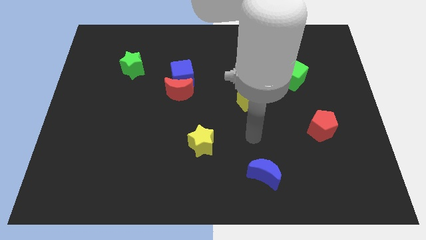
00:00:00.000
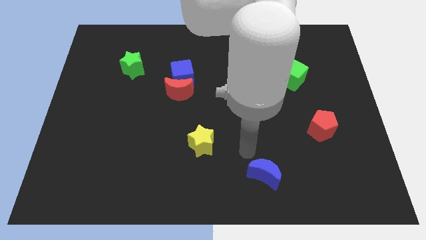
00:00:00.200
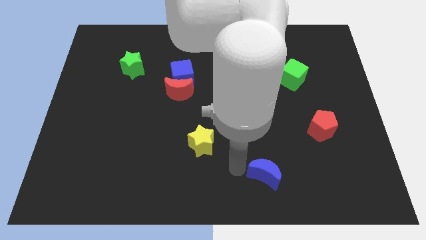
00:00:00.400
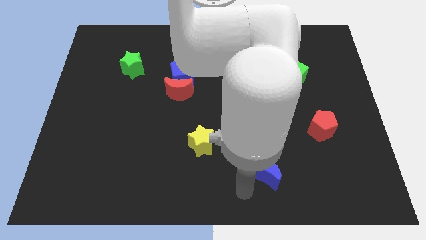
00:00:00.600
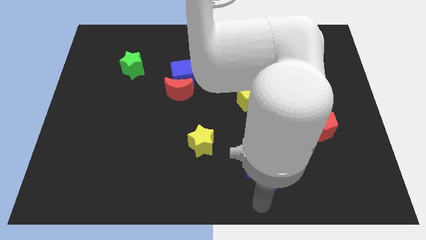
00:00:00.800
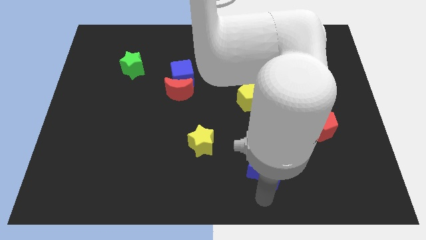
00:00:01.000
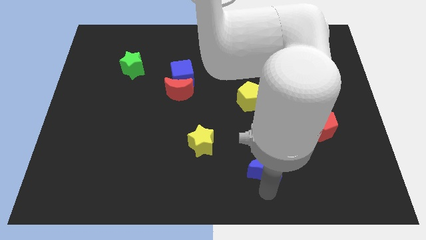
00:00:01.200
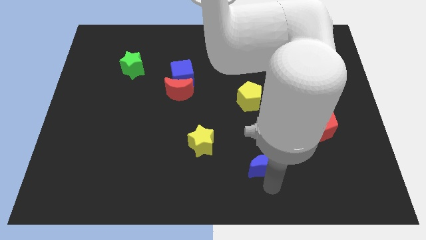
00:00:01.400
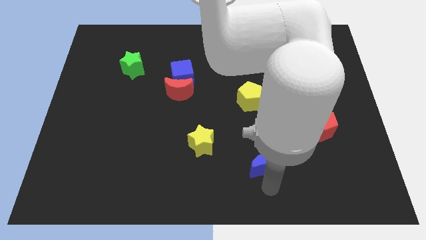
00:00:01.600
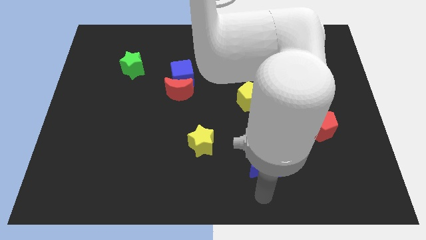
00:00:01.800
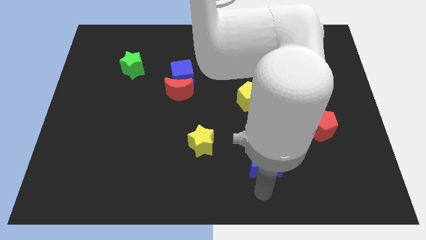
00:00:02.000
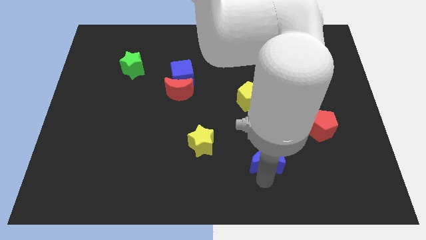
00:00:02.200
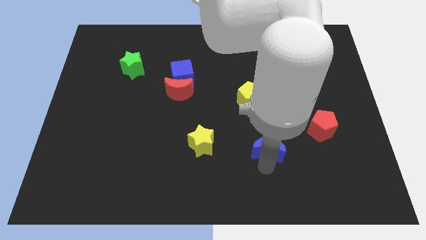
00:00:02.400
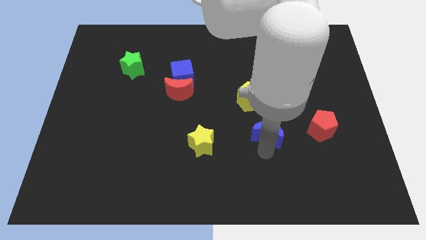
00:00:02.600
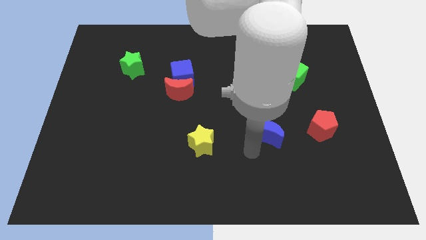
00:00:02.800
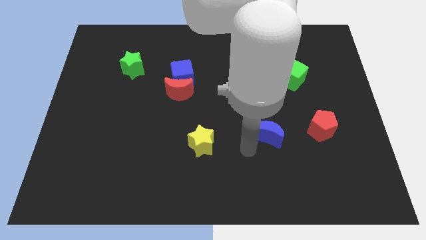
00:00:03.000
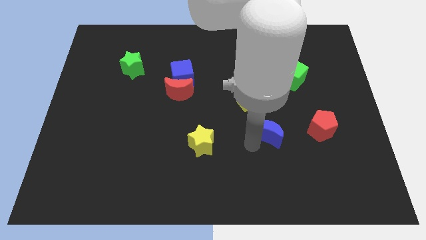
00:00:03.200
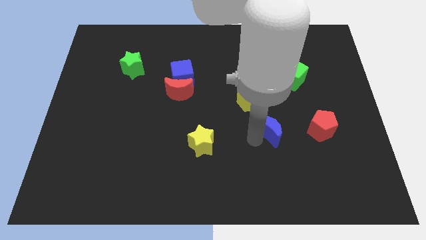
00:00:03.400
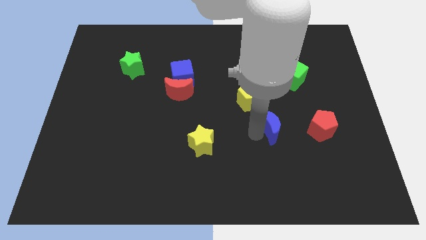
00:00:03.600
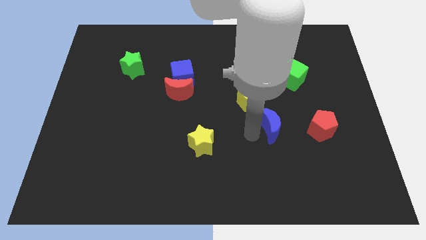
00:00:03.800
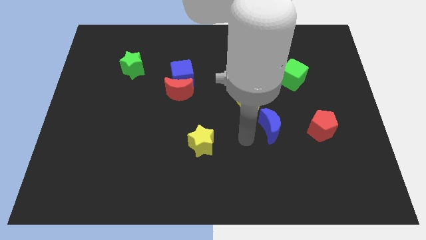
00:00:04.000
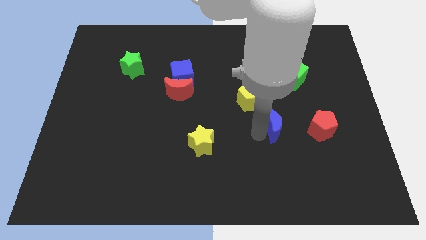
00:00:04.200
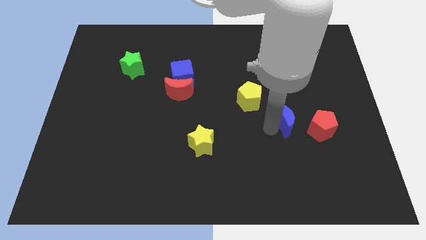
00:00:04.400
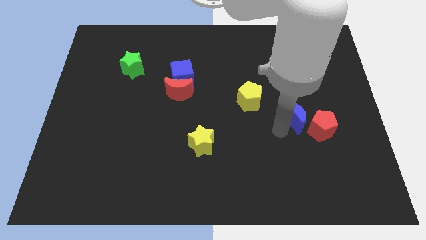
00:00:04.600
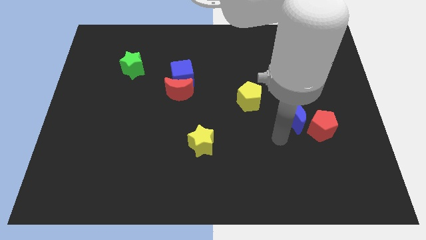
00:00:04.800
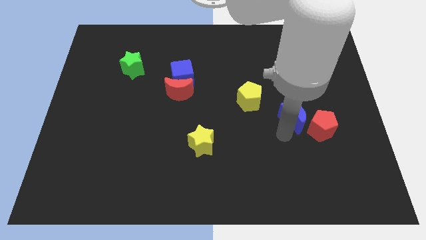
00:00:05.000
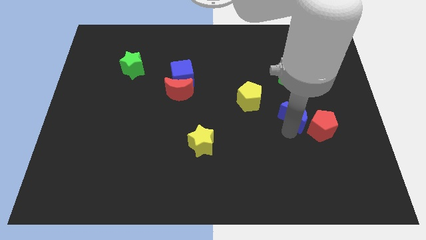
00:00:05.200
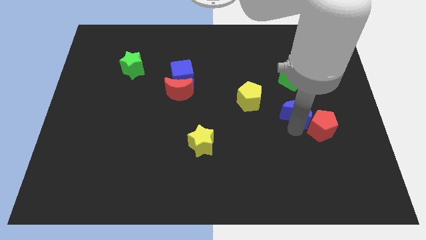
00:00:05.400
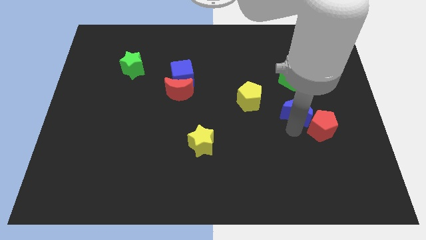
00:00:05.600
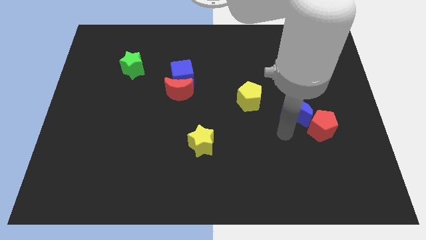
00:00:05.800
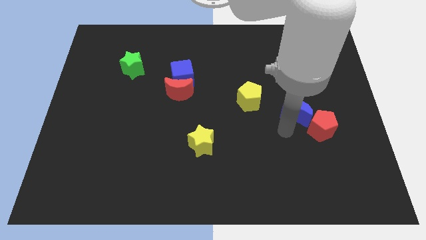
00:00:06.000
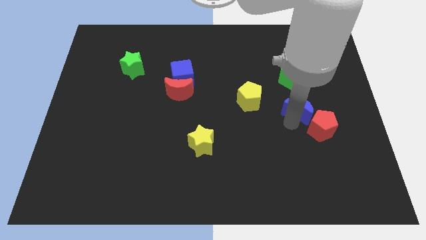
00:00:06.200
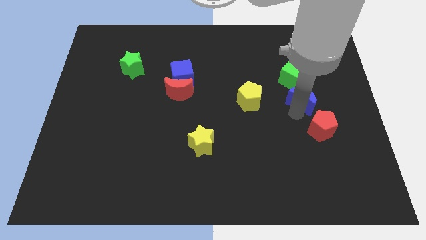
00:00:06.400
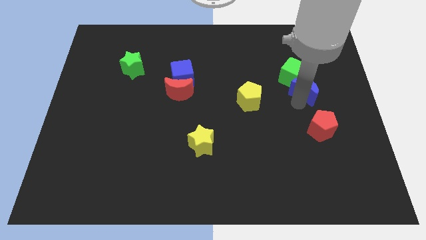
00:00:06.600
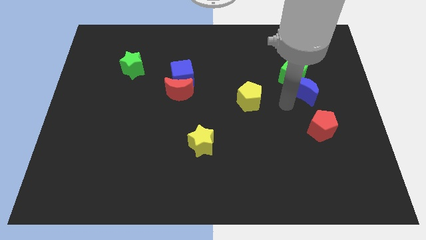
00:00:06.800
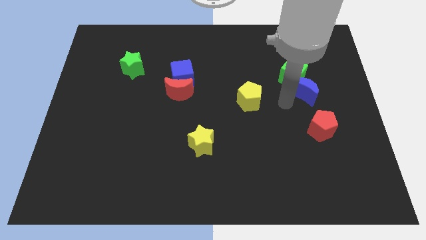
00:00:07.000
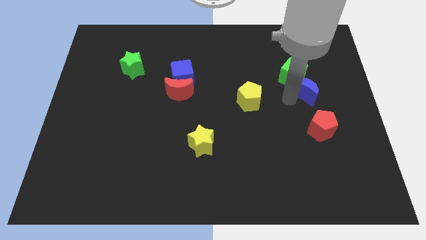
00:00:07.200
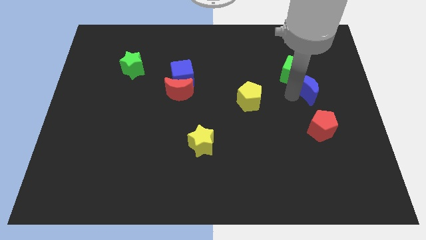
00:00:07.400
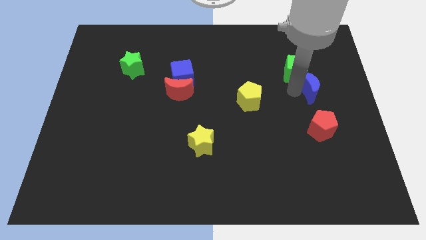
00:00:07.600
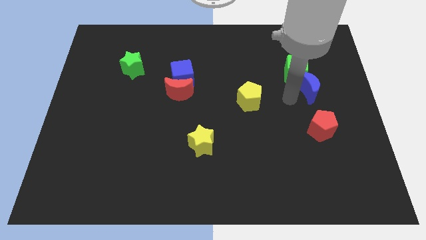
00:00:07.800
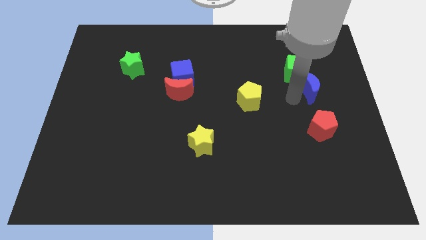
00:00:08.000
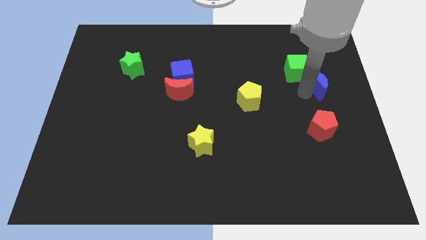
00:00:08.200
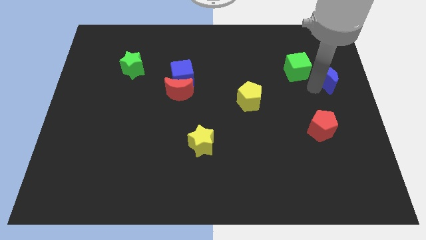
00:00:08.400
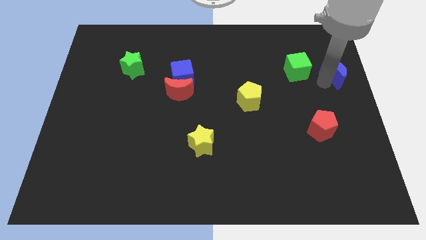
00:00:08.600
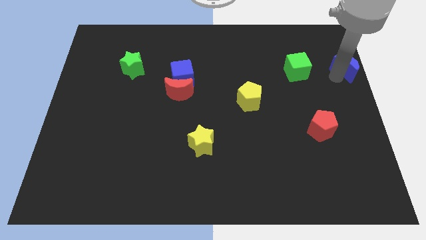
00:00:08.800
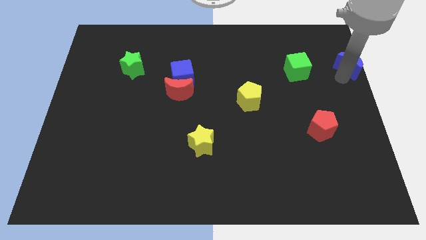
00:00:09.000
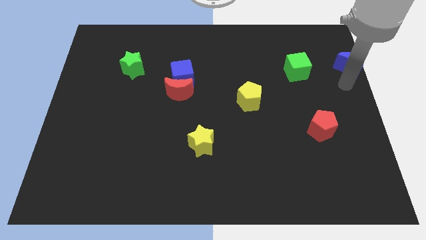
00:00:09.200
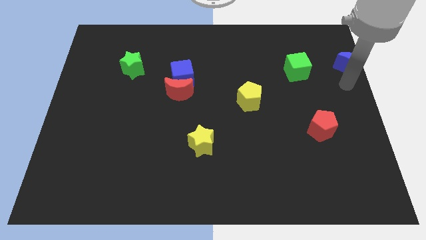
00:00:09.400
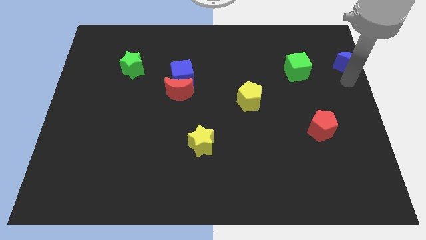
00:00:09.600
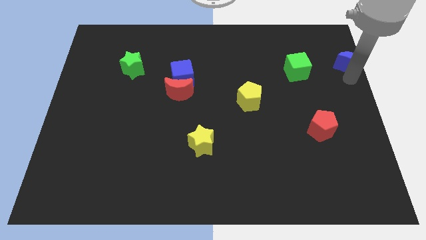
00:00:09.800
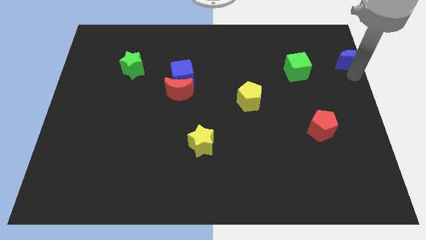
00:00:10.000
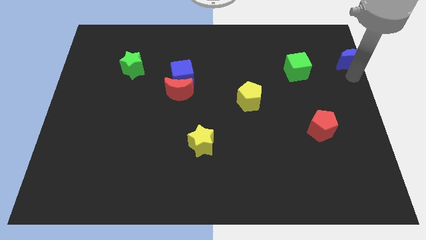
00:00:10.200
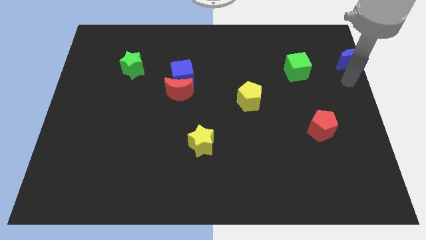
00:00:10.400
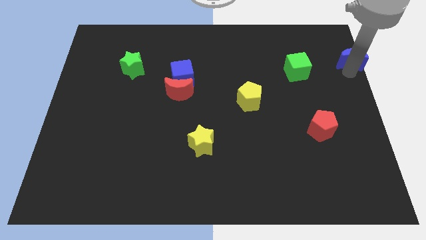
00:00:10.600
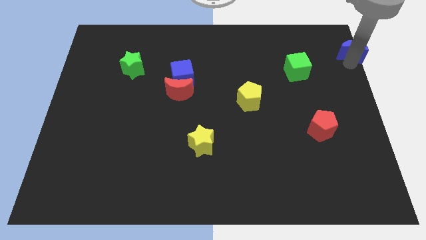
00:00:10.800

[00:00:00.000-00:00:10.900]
put the blue moon to the top right corner

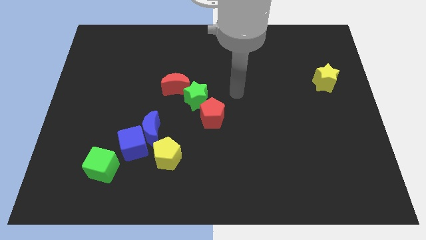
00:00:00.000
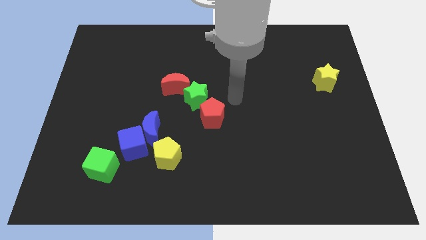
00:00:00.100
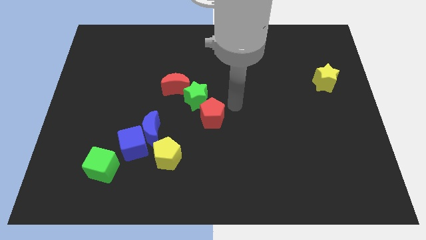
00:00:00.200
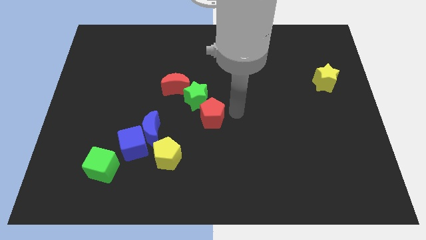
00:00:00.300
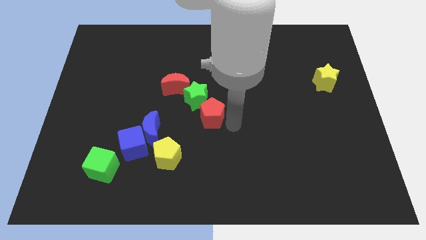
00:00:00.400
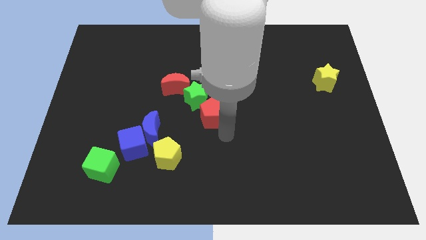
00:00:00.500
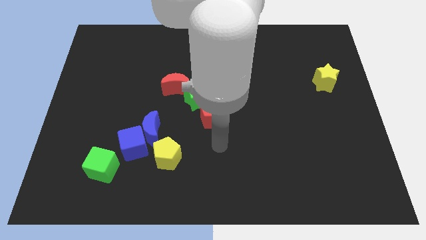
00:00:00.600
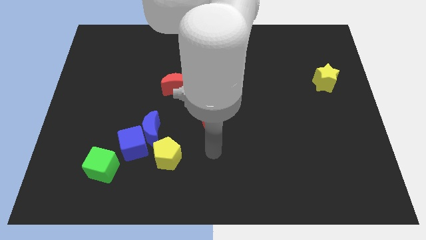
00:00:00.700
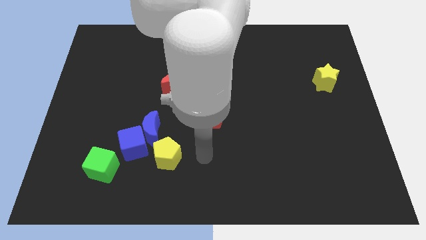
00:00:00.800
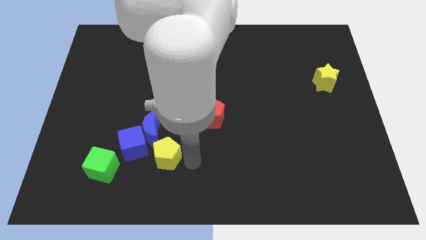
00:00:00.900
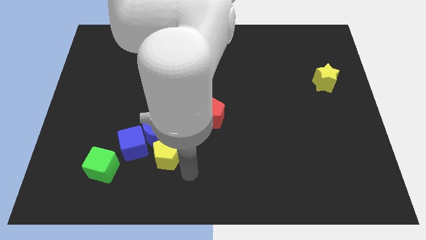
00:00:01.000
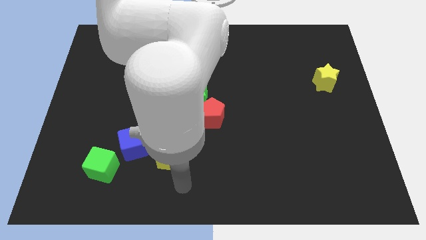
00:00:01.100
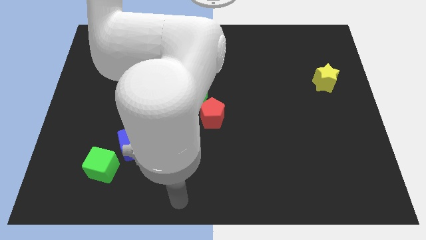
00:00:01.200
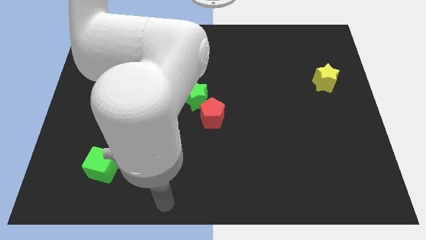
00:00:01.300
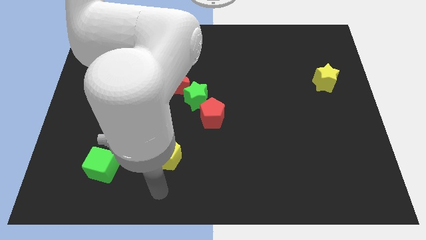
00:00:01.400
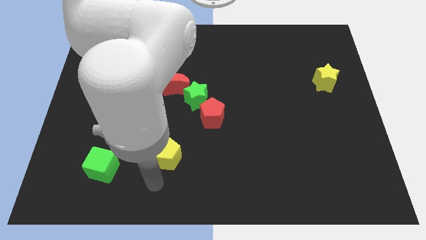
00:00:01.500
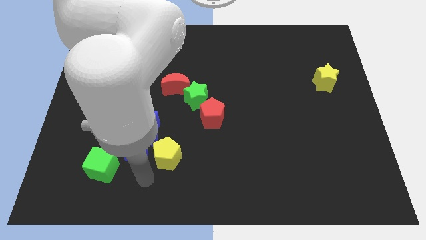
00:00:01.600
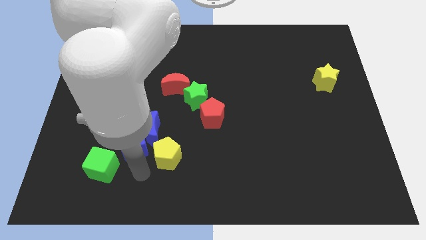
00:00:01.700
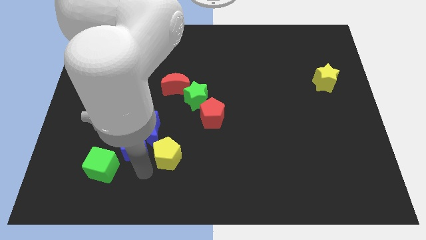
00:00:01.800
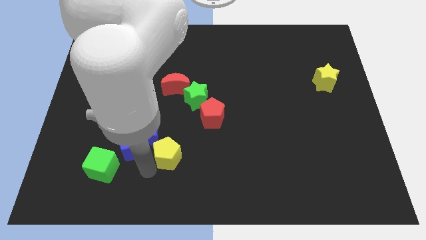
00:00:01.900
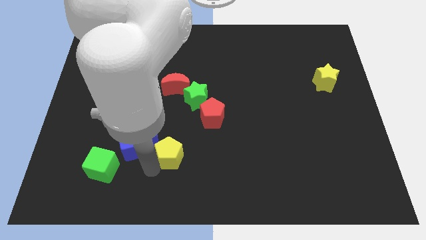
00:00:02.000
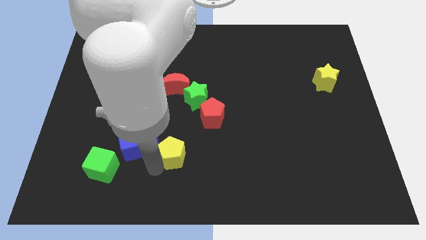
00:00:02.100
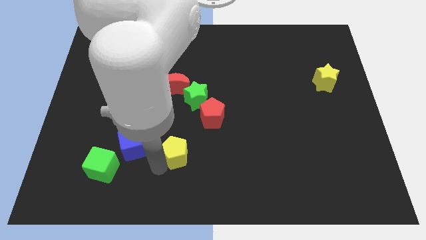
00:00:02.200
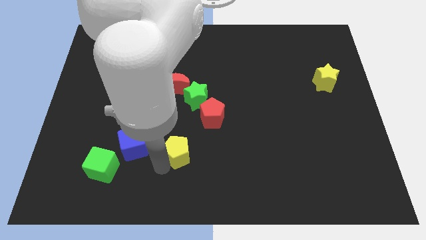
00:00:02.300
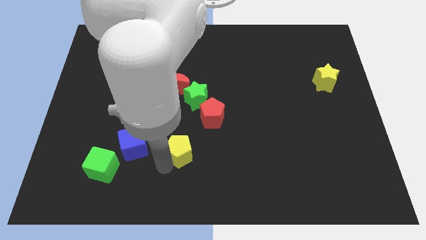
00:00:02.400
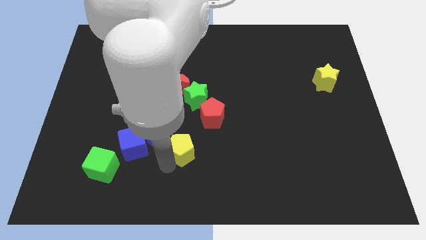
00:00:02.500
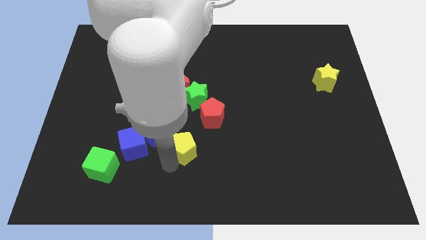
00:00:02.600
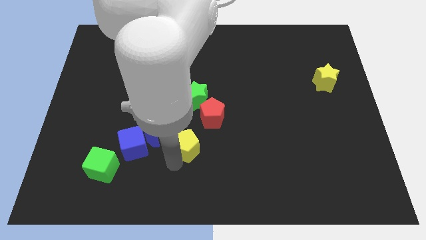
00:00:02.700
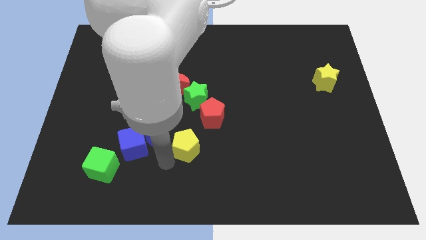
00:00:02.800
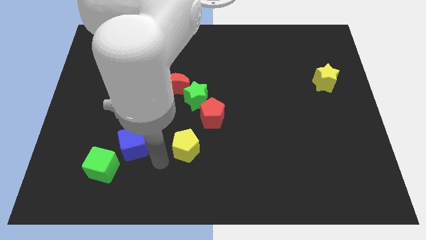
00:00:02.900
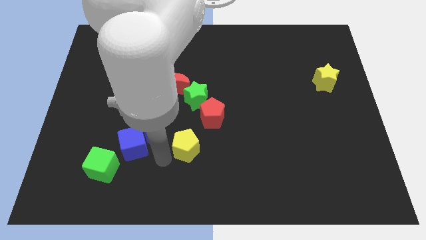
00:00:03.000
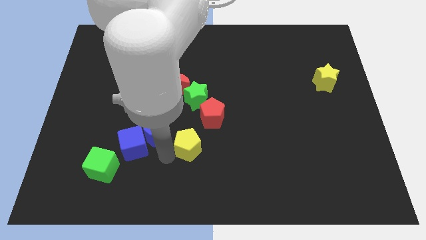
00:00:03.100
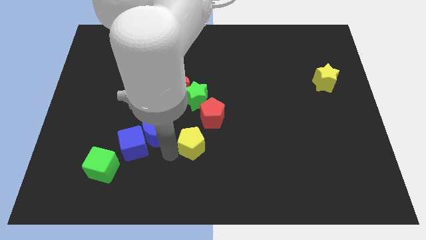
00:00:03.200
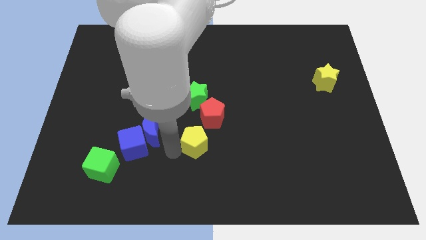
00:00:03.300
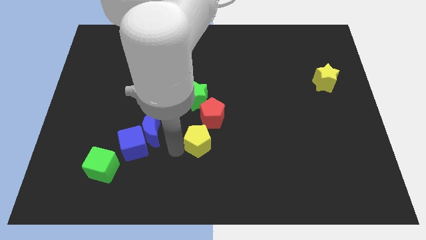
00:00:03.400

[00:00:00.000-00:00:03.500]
move the yellow pentagon to the center
